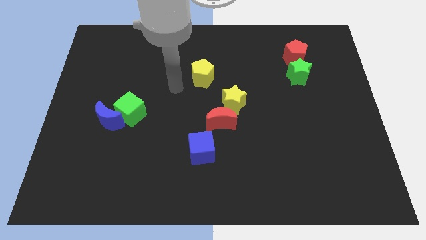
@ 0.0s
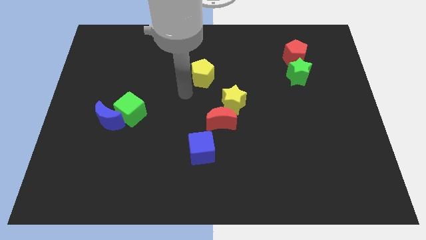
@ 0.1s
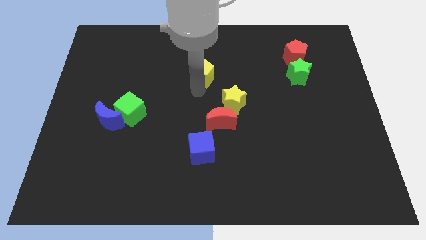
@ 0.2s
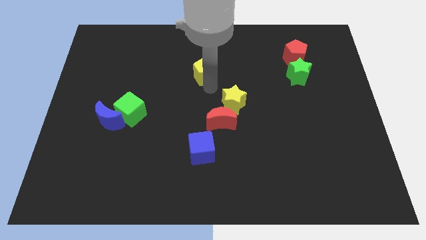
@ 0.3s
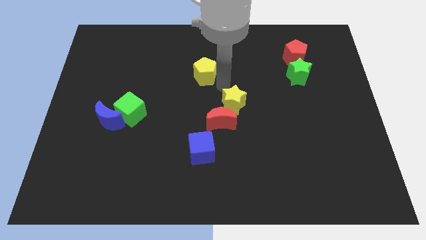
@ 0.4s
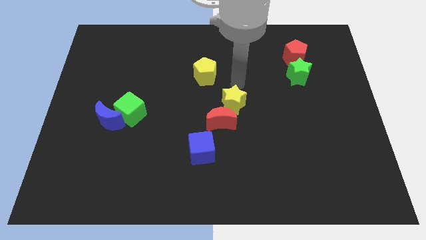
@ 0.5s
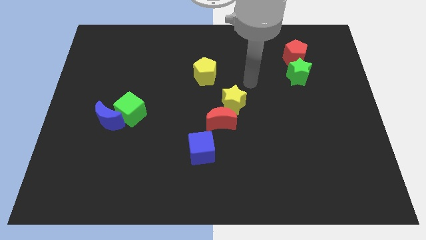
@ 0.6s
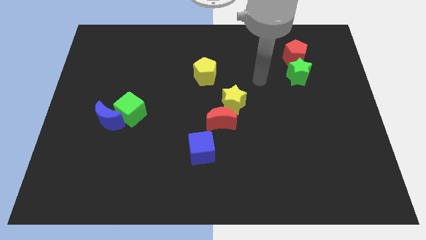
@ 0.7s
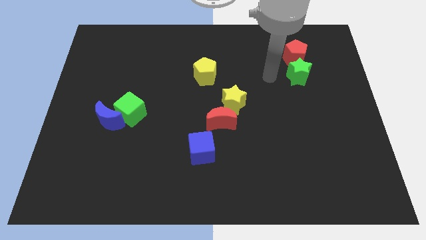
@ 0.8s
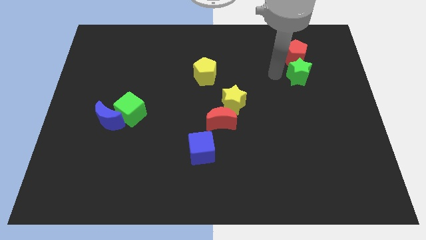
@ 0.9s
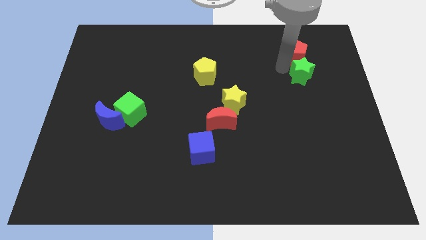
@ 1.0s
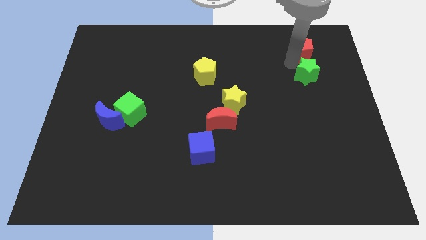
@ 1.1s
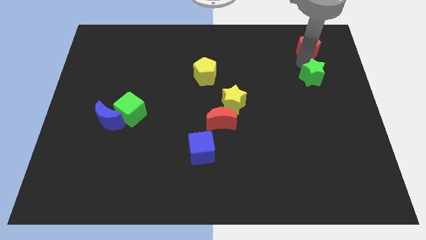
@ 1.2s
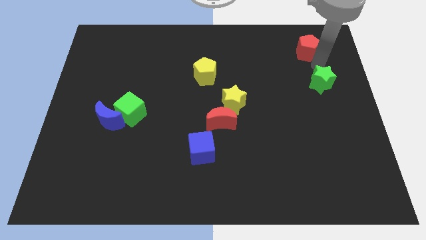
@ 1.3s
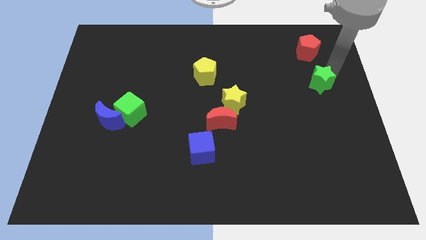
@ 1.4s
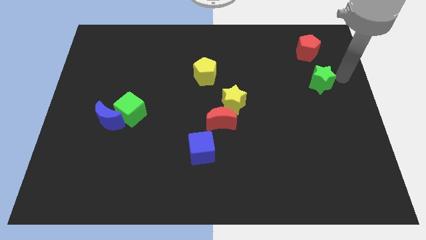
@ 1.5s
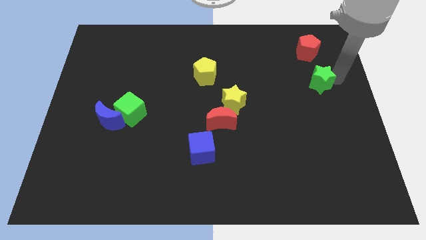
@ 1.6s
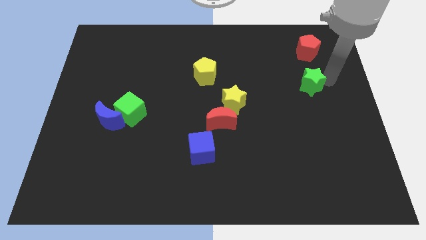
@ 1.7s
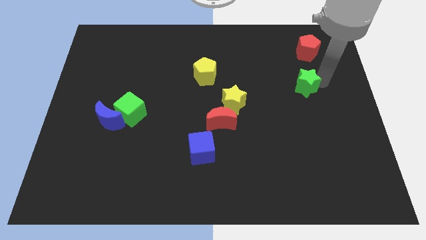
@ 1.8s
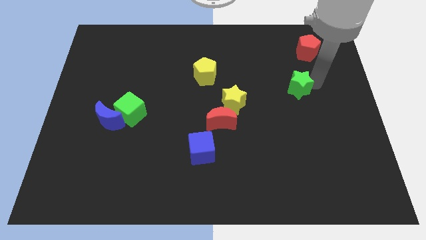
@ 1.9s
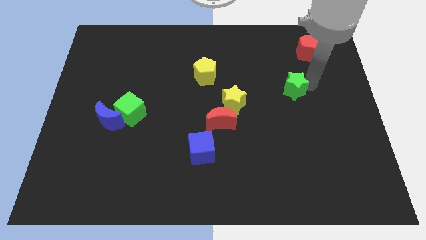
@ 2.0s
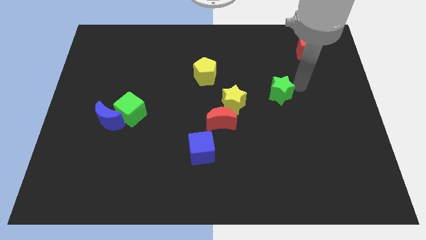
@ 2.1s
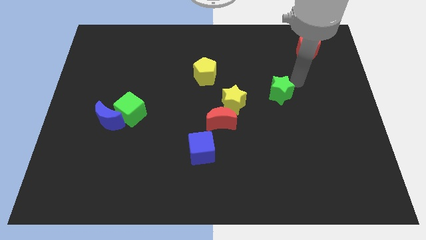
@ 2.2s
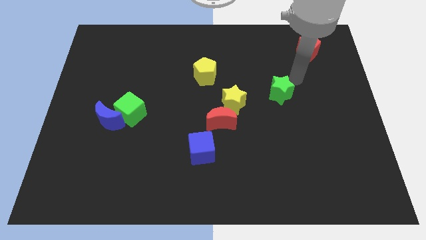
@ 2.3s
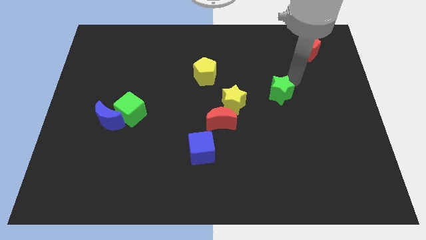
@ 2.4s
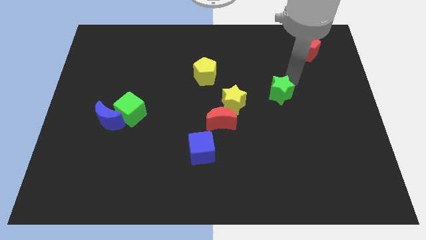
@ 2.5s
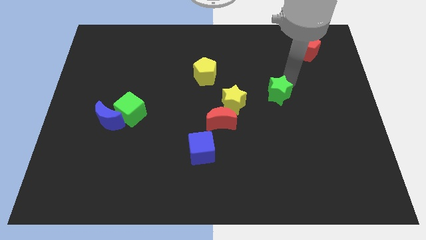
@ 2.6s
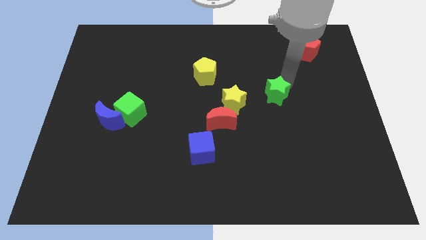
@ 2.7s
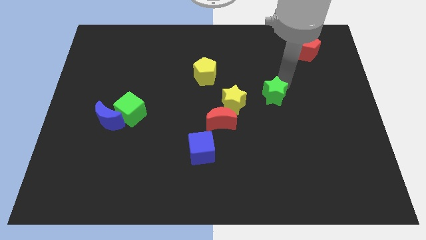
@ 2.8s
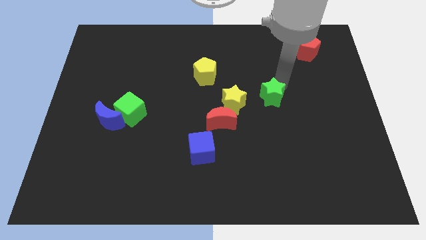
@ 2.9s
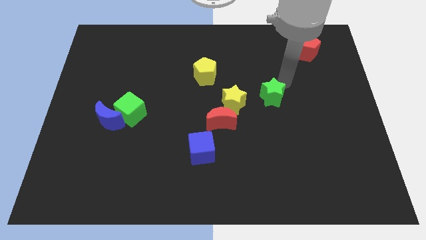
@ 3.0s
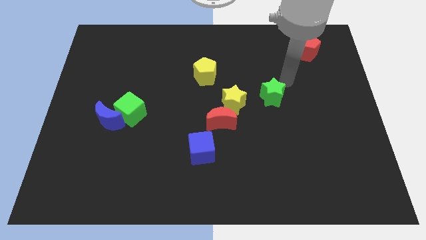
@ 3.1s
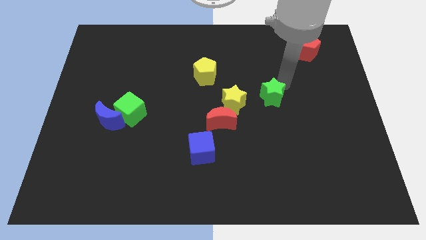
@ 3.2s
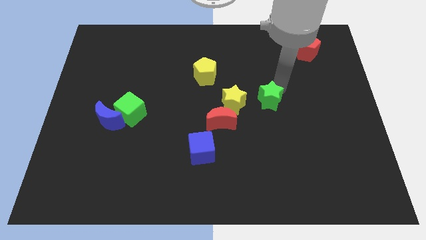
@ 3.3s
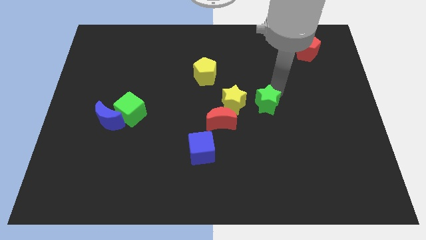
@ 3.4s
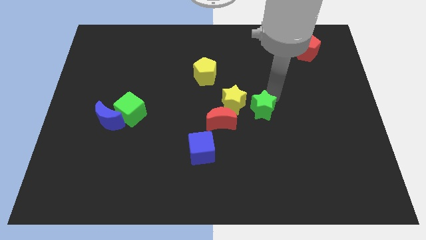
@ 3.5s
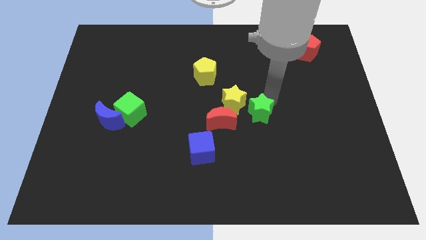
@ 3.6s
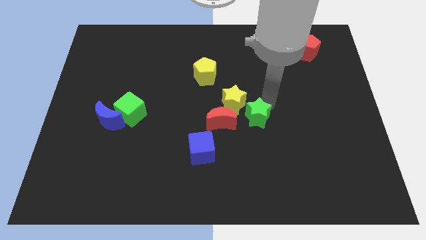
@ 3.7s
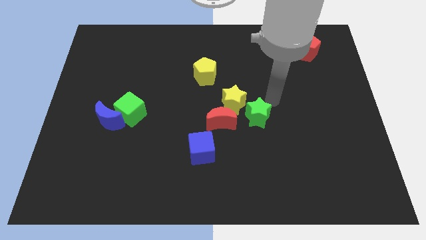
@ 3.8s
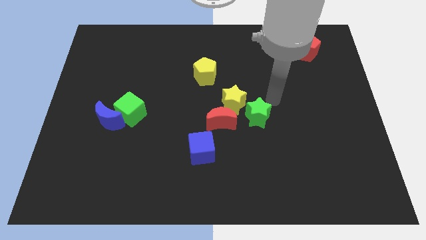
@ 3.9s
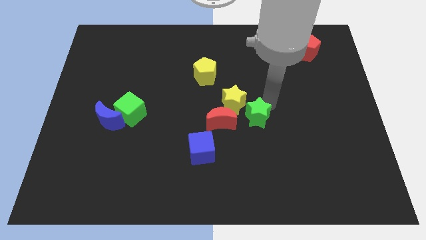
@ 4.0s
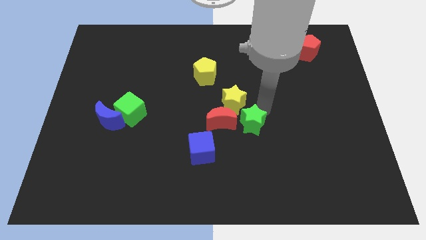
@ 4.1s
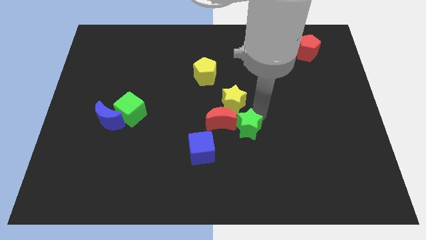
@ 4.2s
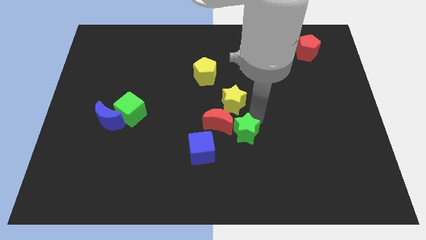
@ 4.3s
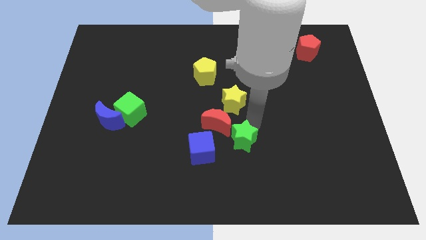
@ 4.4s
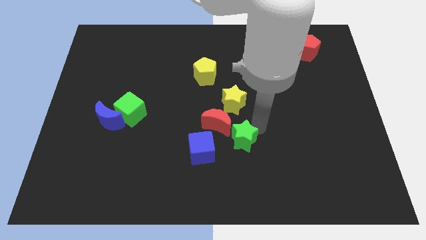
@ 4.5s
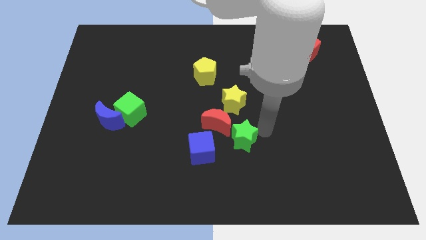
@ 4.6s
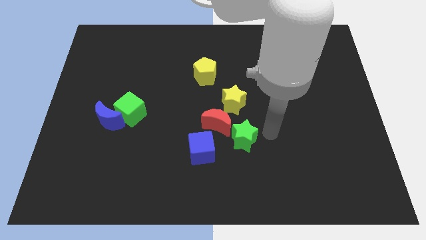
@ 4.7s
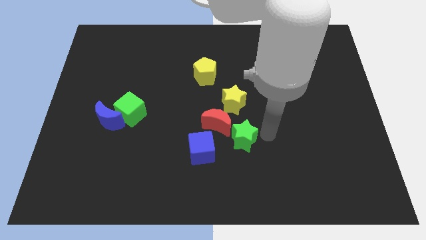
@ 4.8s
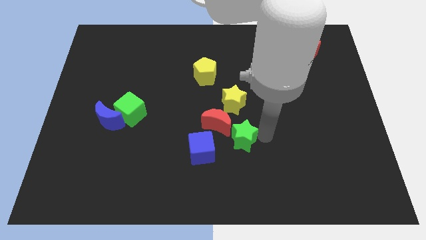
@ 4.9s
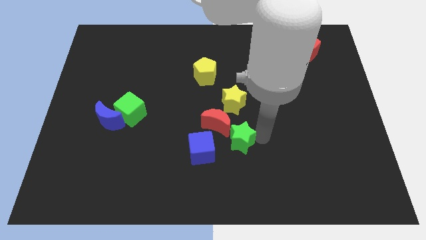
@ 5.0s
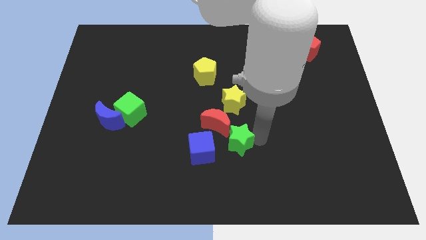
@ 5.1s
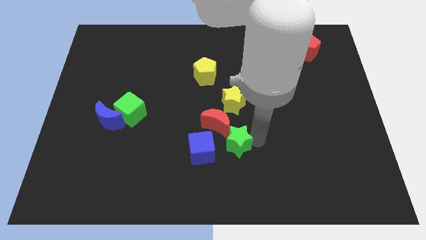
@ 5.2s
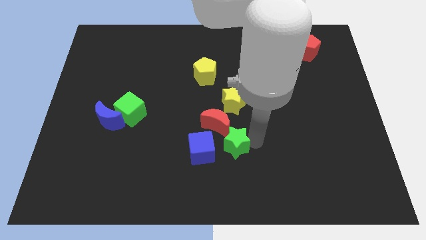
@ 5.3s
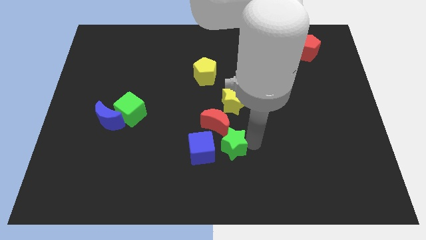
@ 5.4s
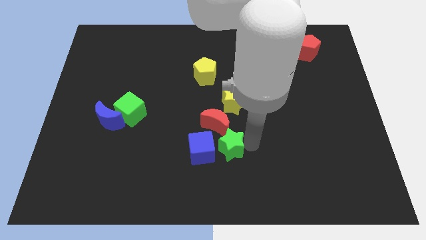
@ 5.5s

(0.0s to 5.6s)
move the green star next to the blue cube
